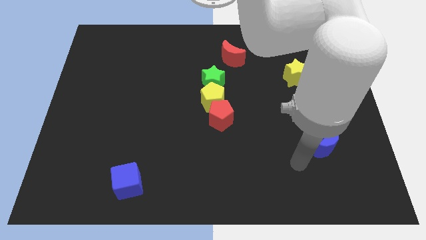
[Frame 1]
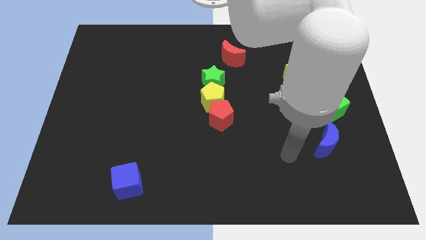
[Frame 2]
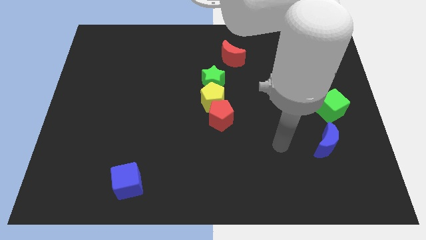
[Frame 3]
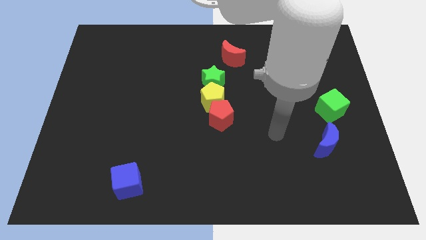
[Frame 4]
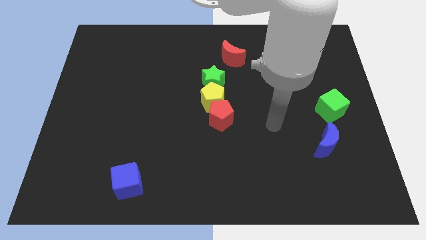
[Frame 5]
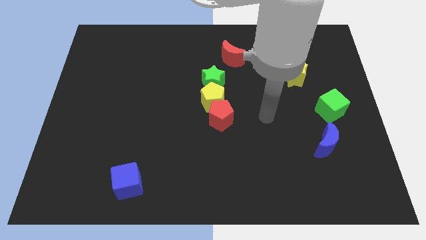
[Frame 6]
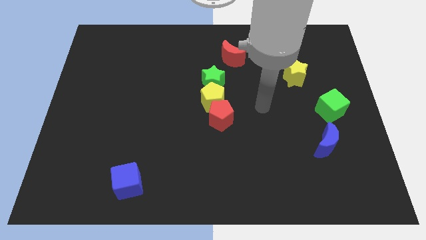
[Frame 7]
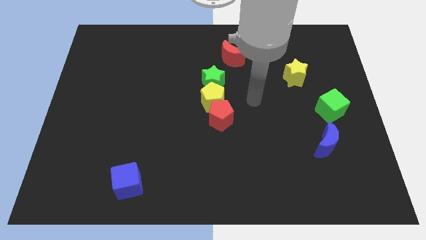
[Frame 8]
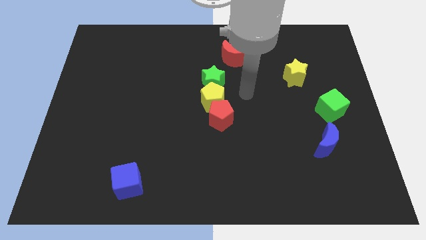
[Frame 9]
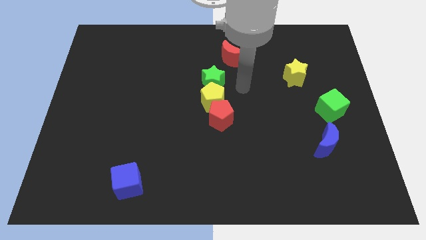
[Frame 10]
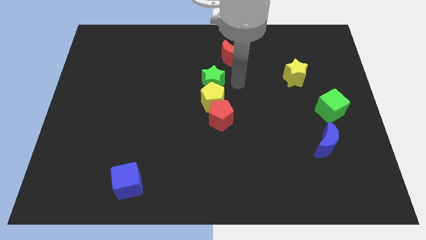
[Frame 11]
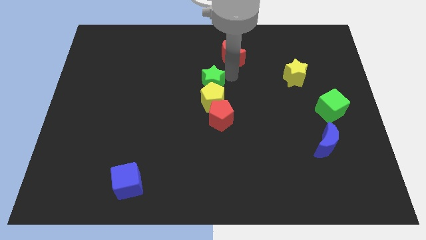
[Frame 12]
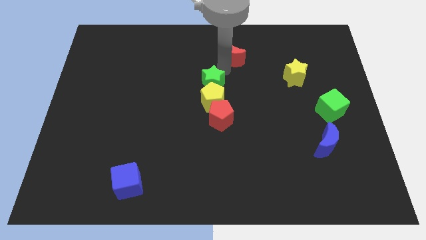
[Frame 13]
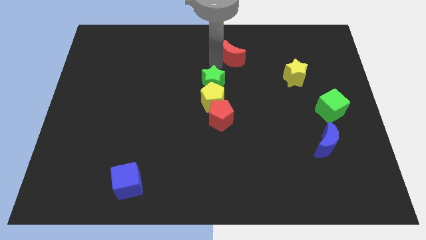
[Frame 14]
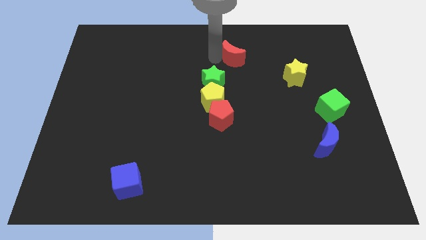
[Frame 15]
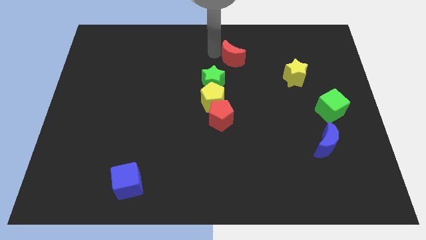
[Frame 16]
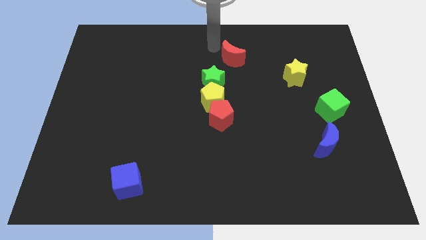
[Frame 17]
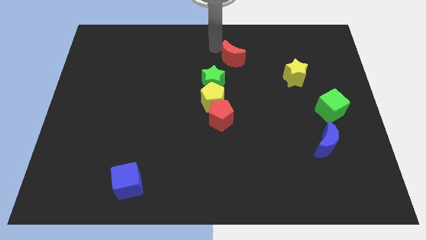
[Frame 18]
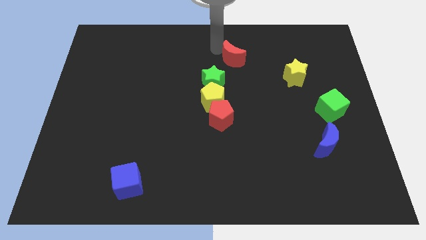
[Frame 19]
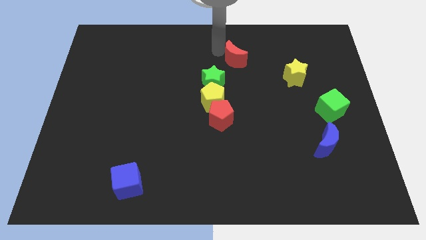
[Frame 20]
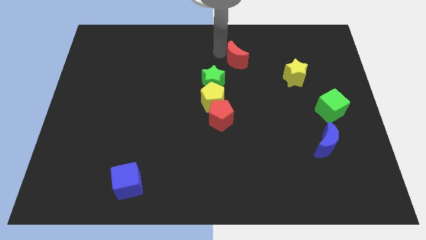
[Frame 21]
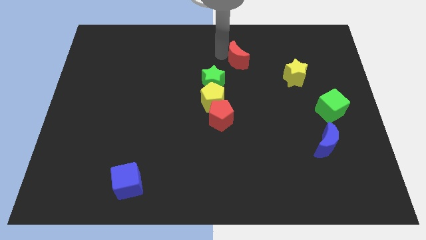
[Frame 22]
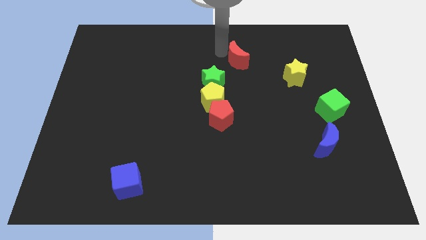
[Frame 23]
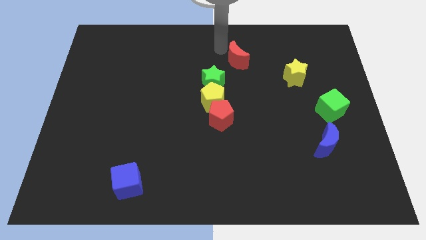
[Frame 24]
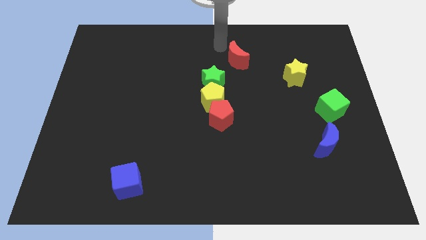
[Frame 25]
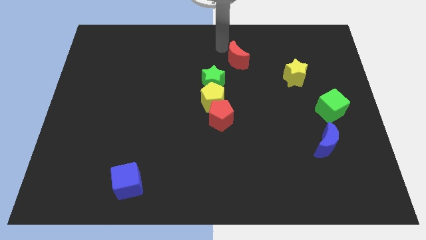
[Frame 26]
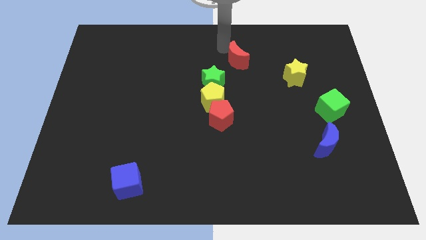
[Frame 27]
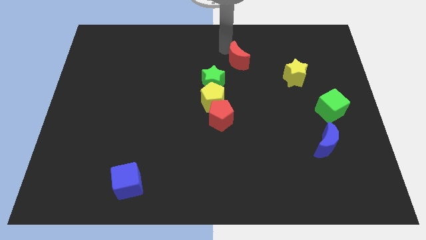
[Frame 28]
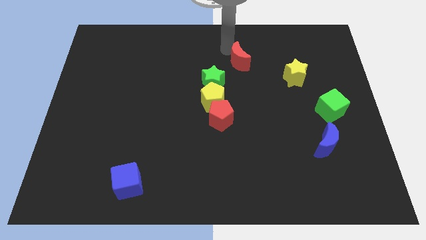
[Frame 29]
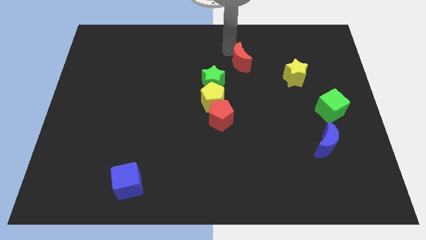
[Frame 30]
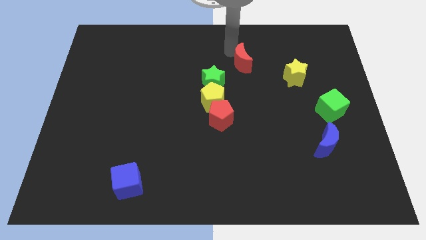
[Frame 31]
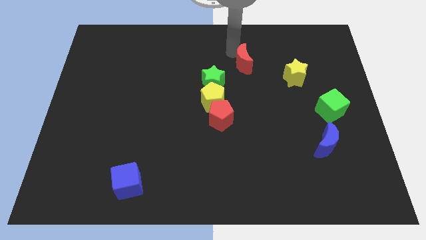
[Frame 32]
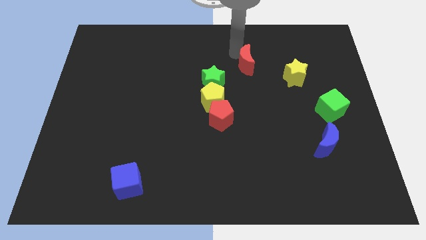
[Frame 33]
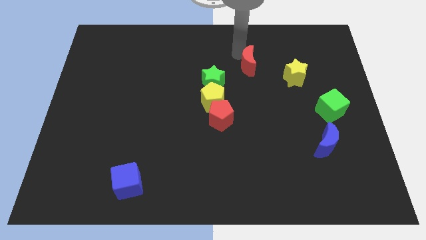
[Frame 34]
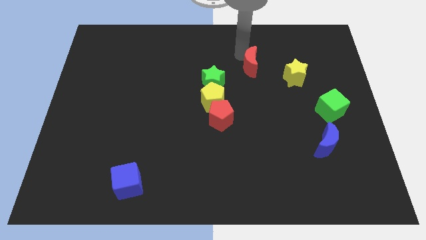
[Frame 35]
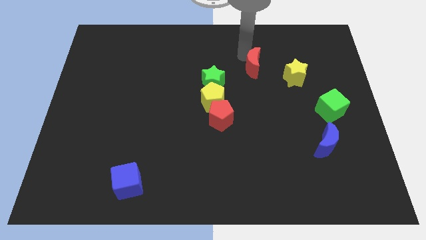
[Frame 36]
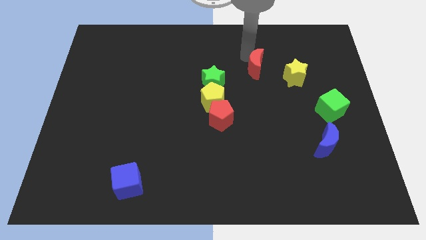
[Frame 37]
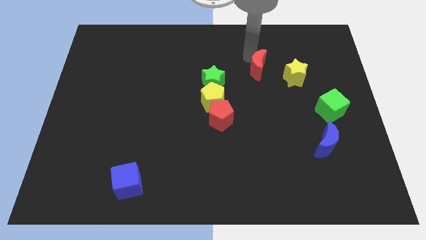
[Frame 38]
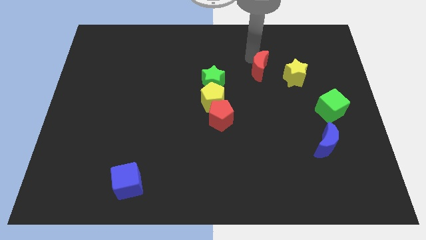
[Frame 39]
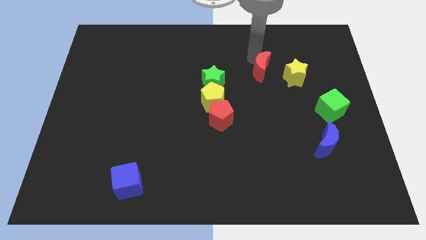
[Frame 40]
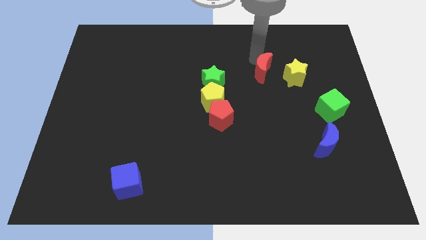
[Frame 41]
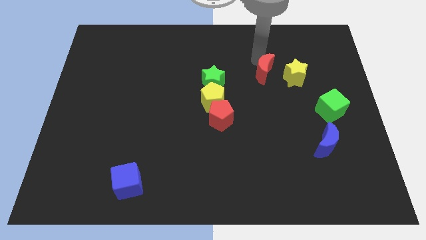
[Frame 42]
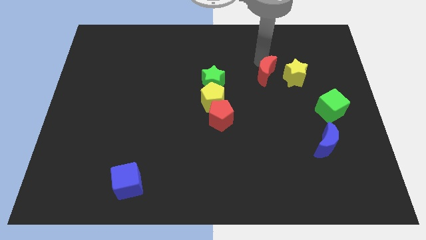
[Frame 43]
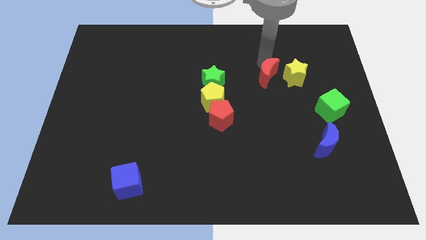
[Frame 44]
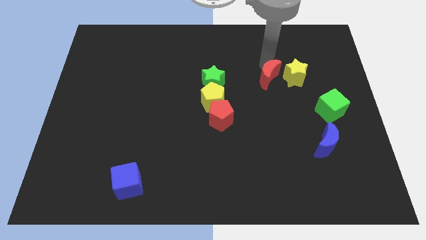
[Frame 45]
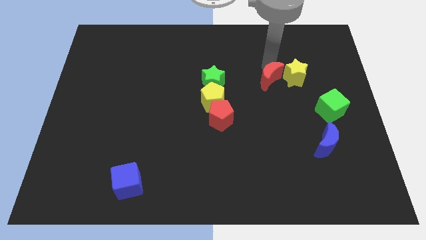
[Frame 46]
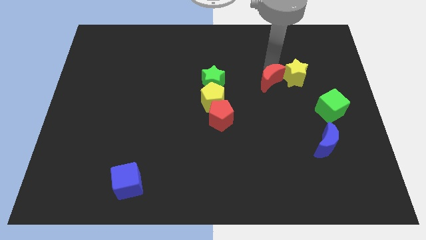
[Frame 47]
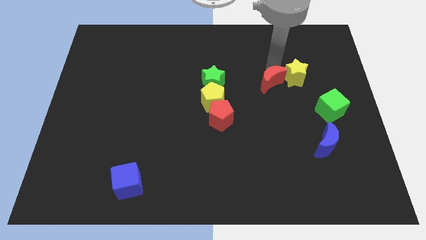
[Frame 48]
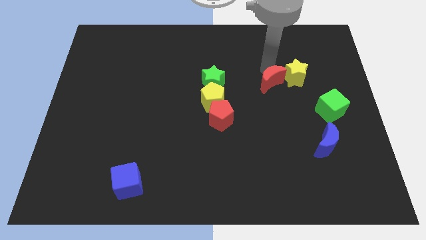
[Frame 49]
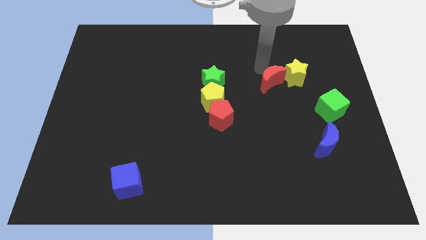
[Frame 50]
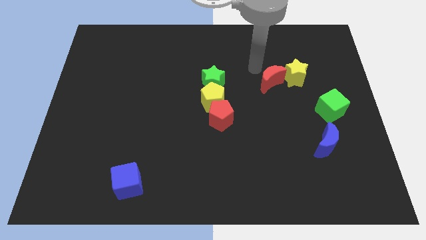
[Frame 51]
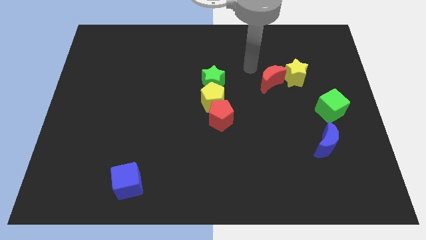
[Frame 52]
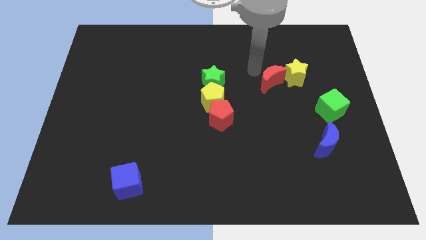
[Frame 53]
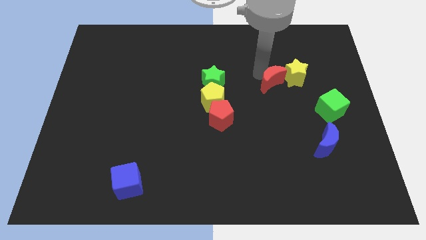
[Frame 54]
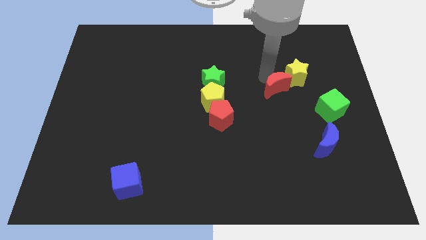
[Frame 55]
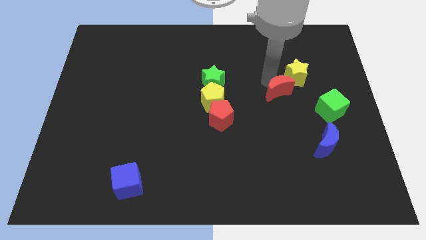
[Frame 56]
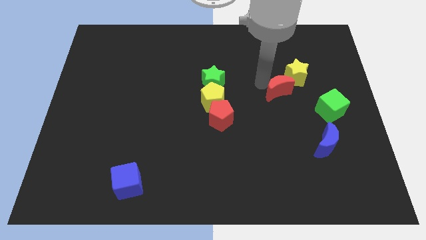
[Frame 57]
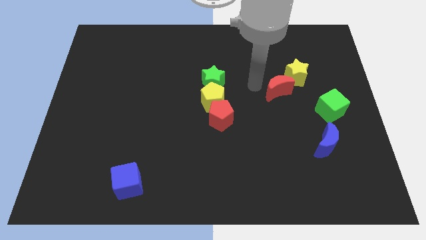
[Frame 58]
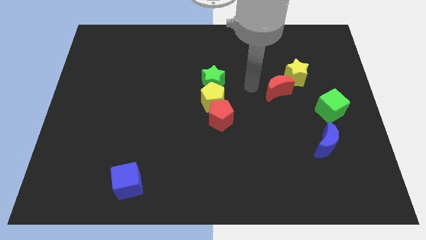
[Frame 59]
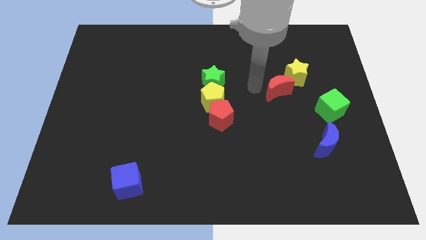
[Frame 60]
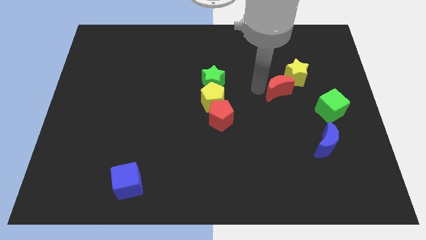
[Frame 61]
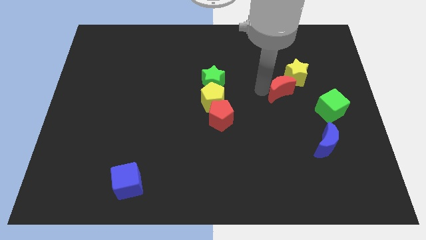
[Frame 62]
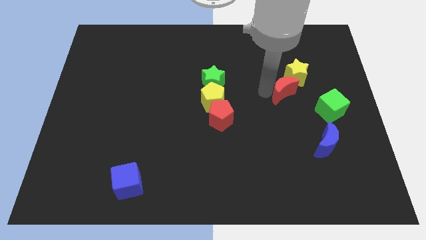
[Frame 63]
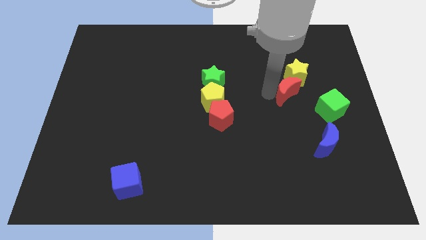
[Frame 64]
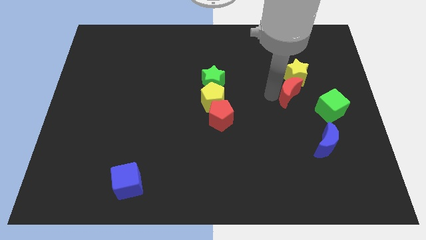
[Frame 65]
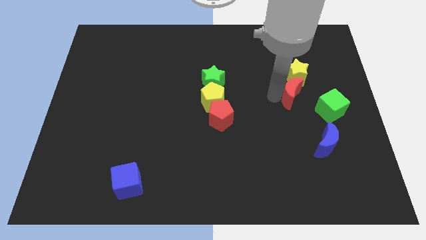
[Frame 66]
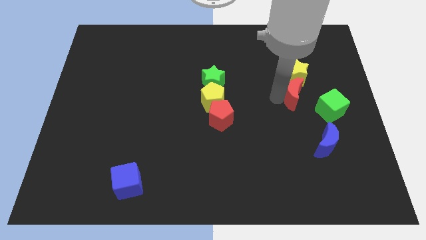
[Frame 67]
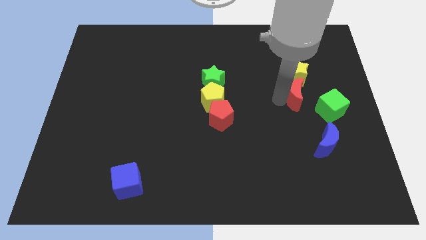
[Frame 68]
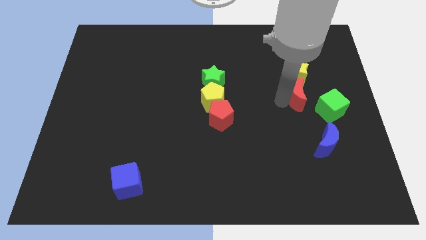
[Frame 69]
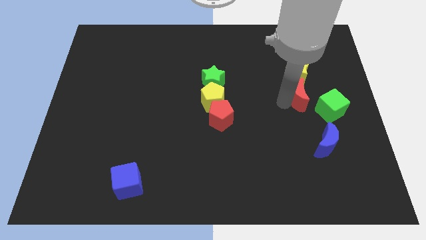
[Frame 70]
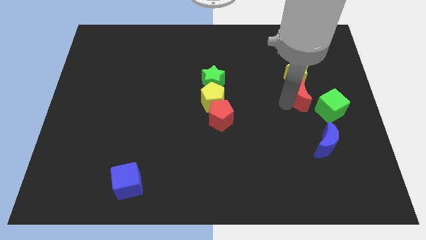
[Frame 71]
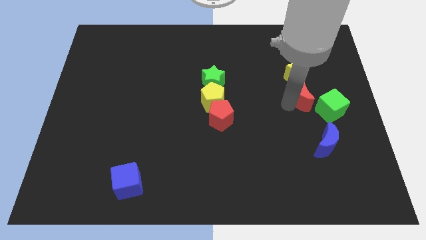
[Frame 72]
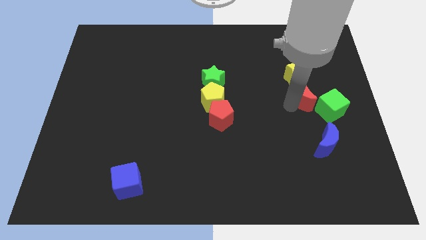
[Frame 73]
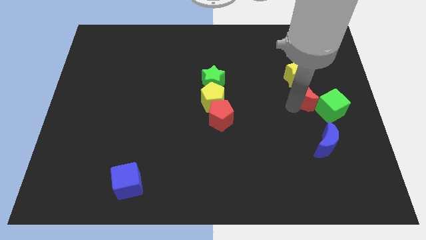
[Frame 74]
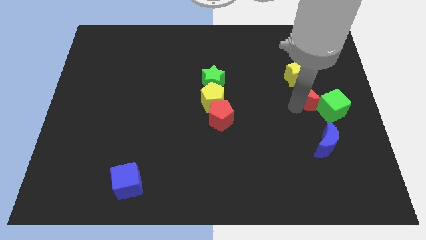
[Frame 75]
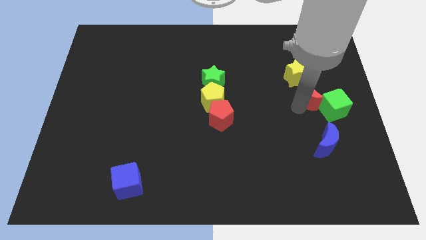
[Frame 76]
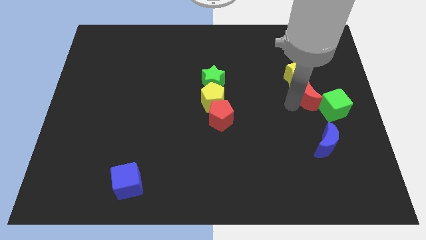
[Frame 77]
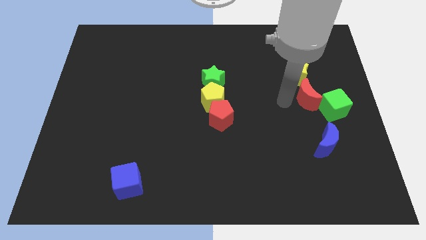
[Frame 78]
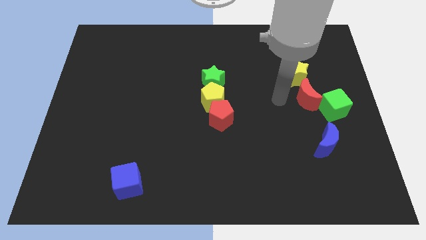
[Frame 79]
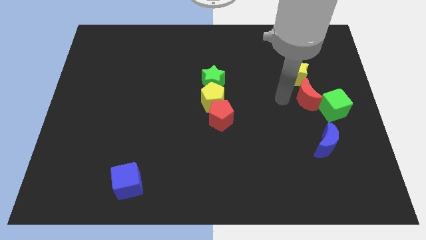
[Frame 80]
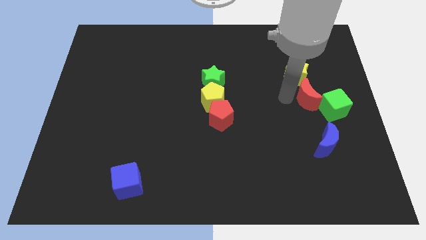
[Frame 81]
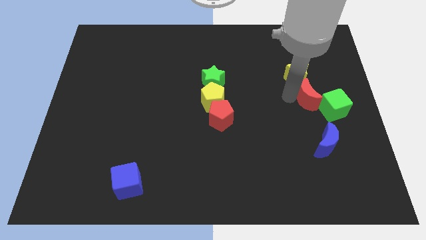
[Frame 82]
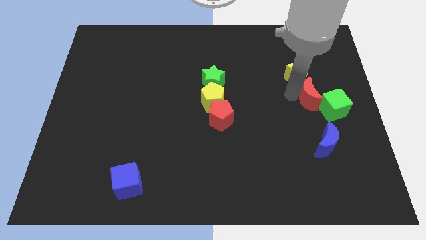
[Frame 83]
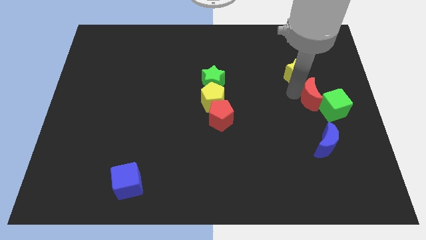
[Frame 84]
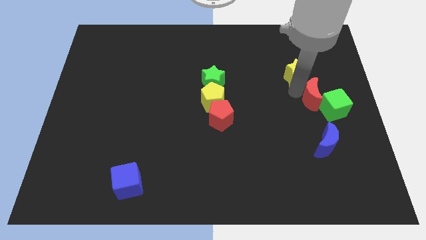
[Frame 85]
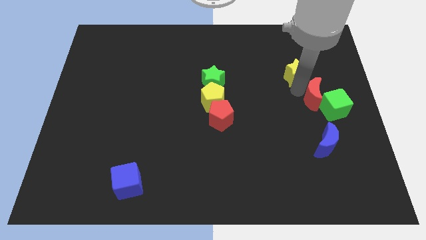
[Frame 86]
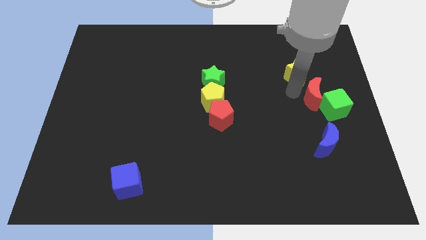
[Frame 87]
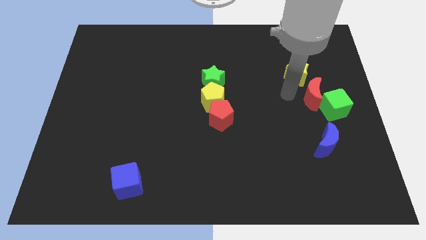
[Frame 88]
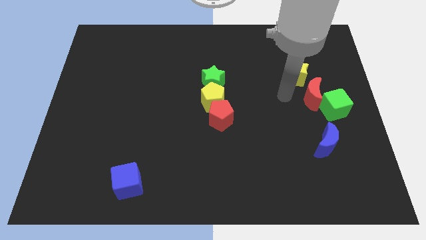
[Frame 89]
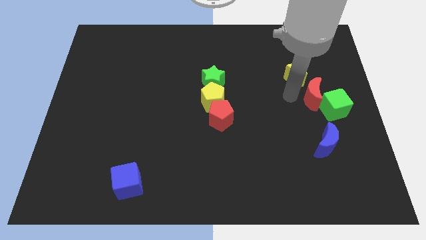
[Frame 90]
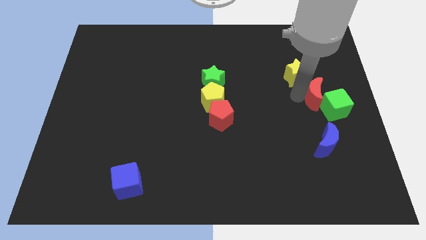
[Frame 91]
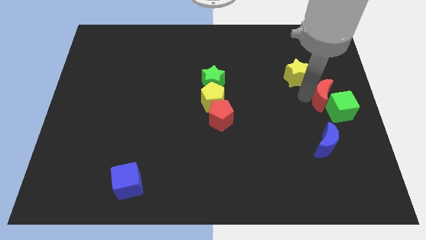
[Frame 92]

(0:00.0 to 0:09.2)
put the red moon to the center right
